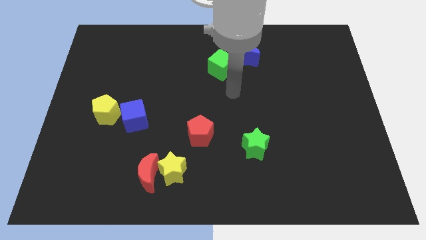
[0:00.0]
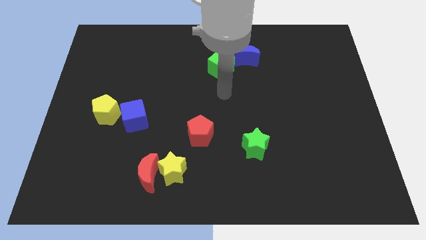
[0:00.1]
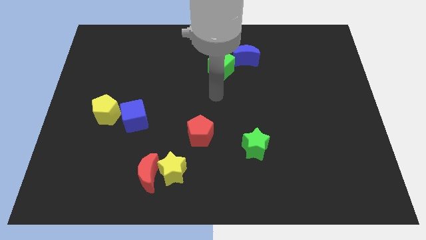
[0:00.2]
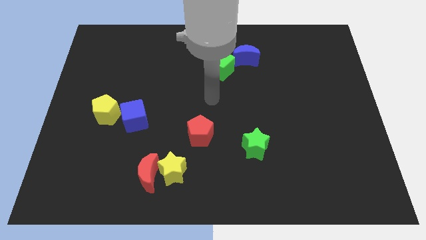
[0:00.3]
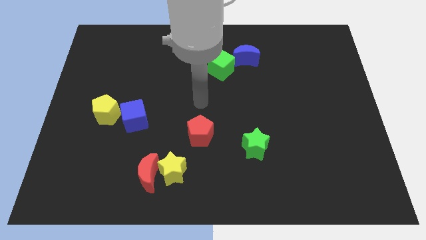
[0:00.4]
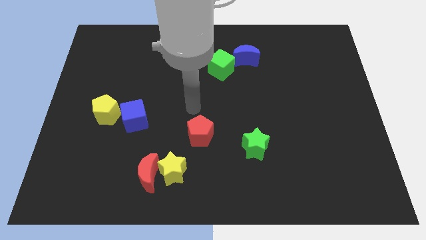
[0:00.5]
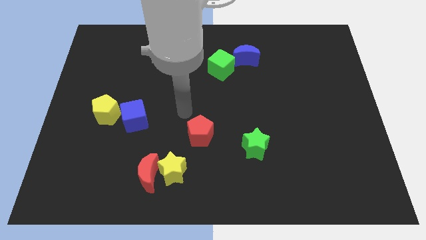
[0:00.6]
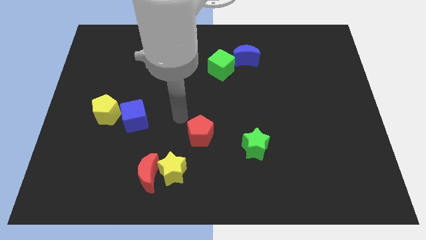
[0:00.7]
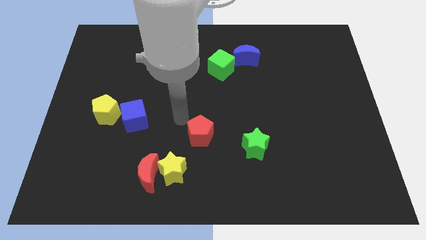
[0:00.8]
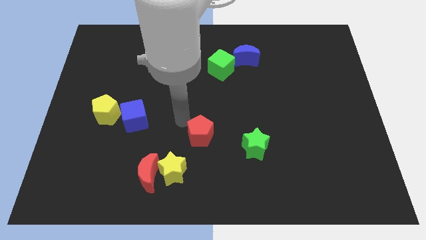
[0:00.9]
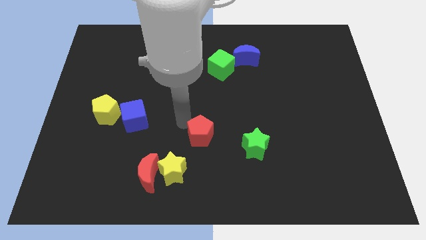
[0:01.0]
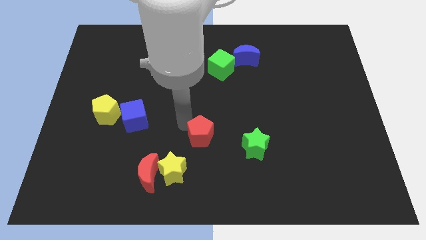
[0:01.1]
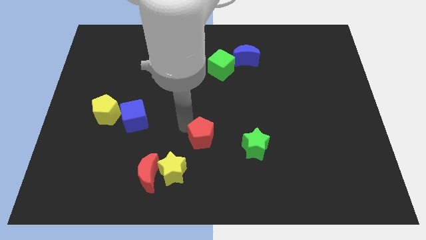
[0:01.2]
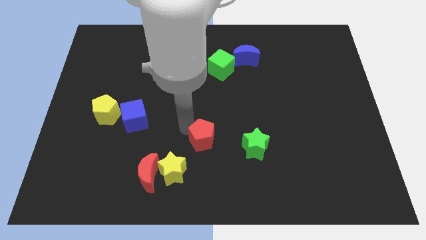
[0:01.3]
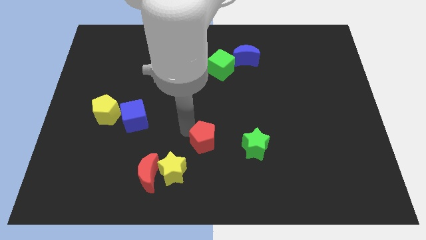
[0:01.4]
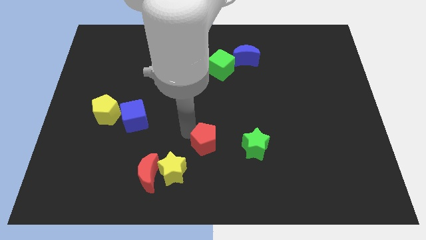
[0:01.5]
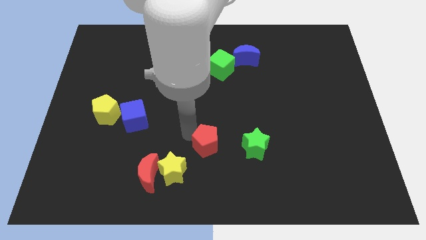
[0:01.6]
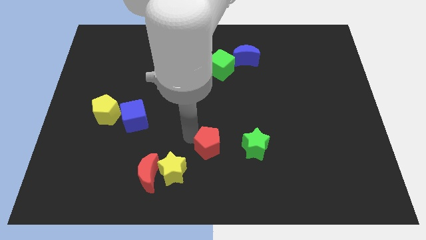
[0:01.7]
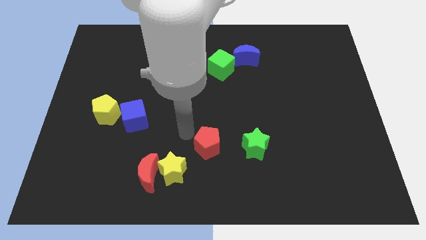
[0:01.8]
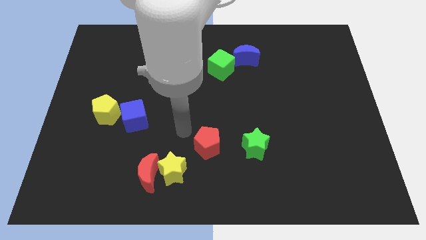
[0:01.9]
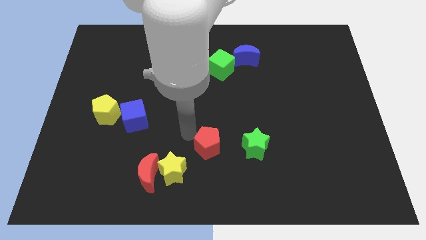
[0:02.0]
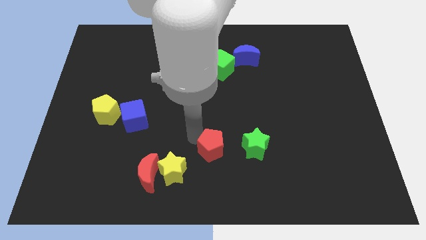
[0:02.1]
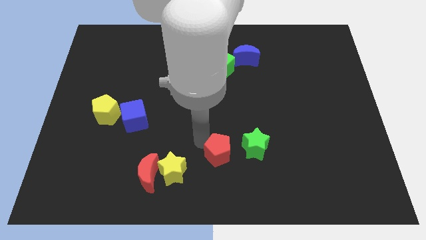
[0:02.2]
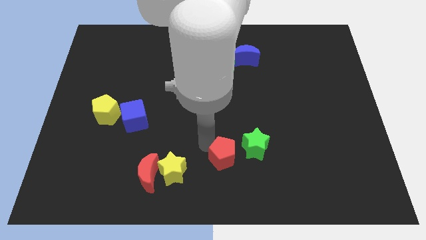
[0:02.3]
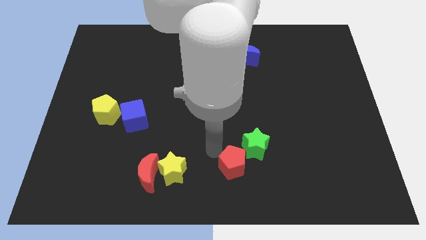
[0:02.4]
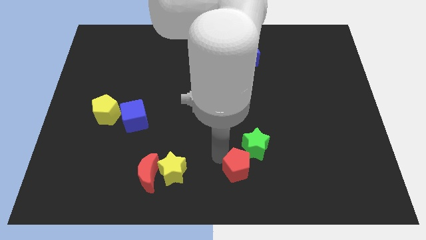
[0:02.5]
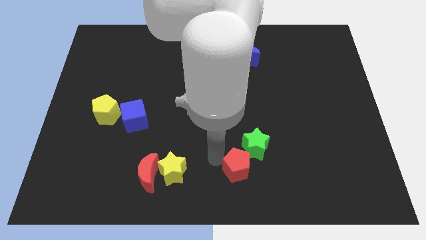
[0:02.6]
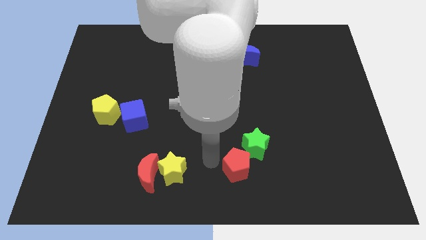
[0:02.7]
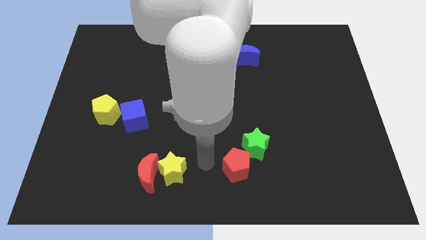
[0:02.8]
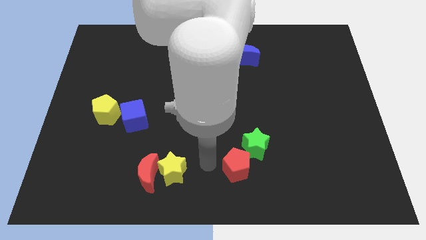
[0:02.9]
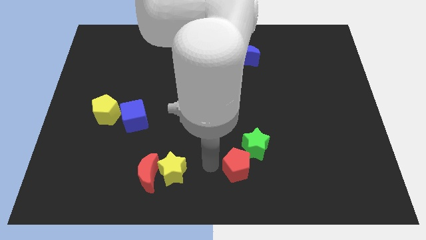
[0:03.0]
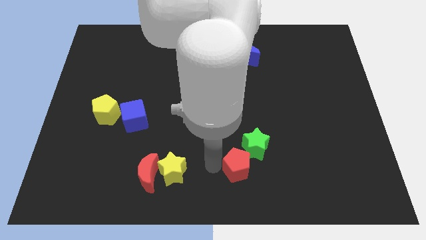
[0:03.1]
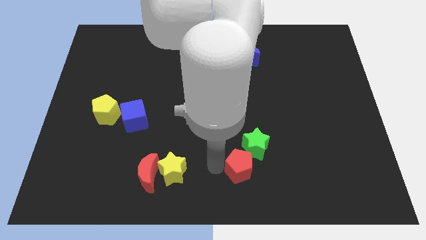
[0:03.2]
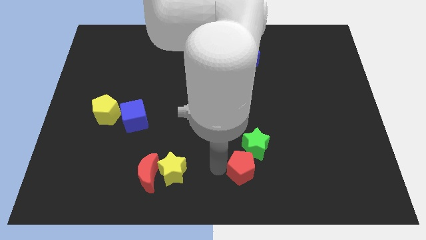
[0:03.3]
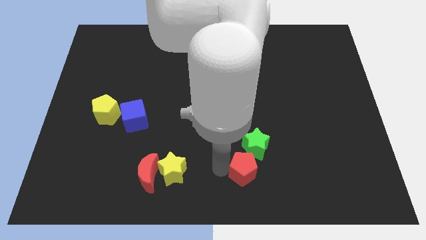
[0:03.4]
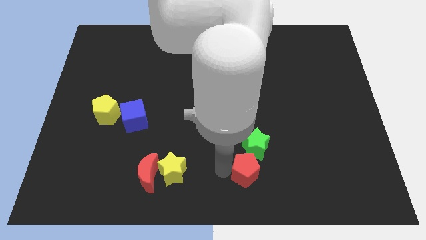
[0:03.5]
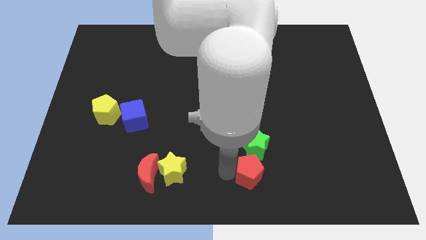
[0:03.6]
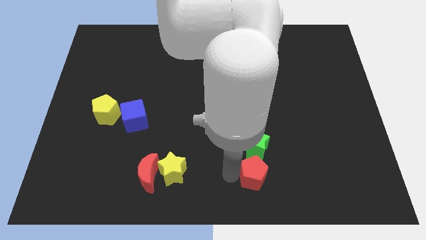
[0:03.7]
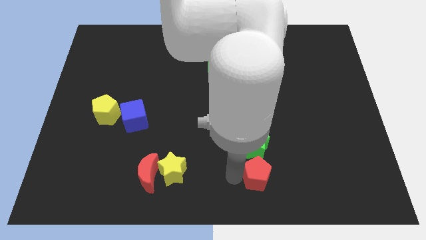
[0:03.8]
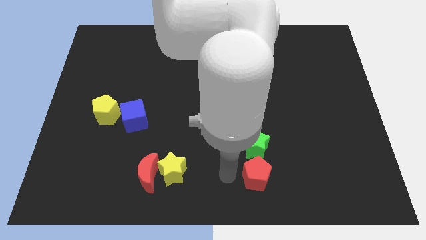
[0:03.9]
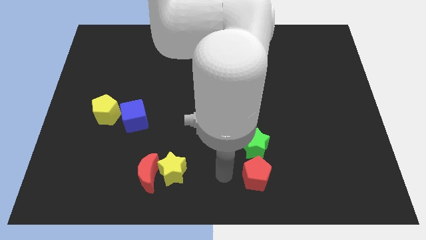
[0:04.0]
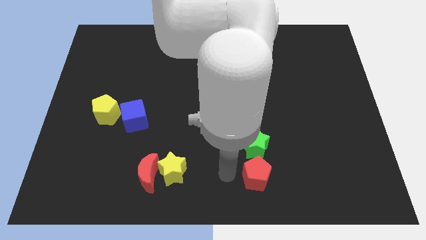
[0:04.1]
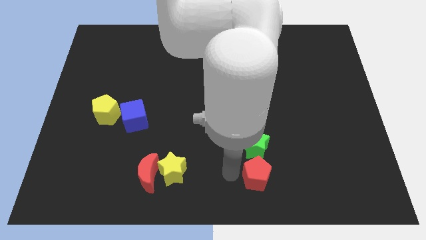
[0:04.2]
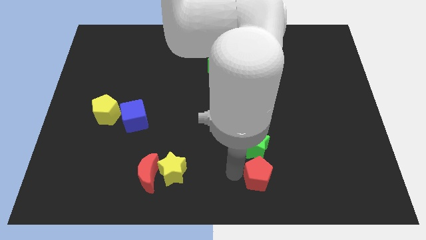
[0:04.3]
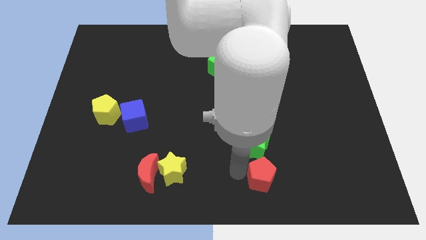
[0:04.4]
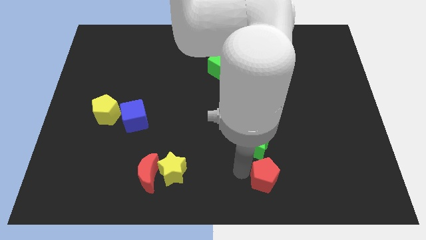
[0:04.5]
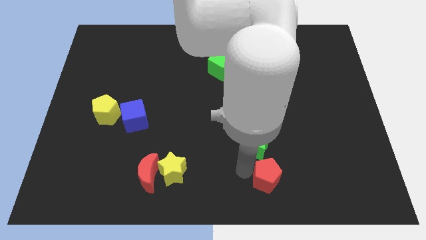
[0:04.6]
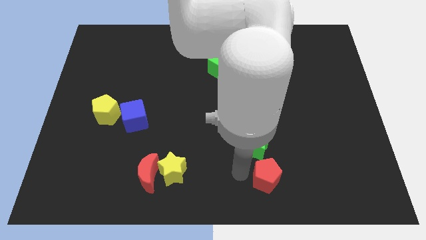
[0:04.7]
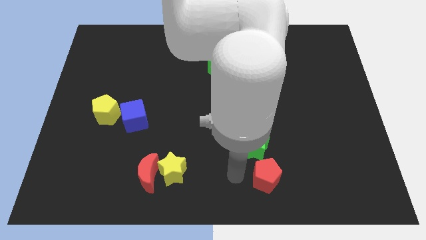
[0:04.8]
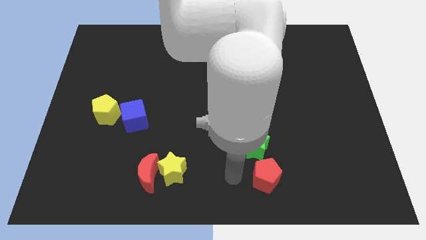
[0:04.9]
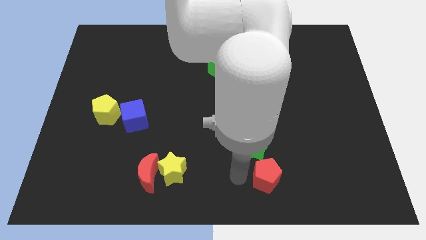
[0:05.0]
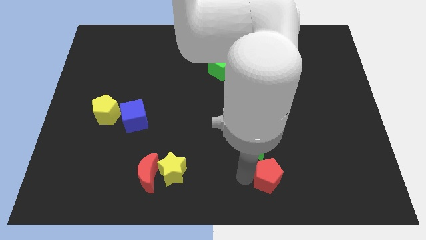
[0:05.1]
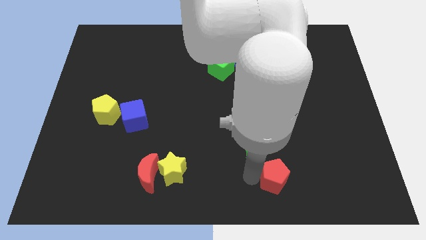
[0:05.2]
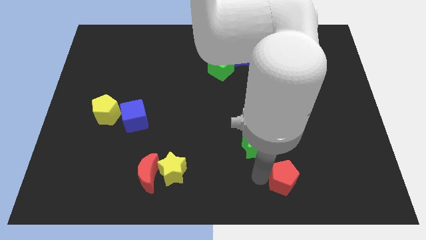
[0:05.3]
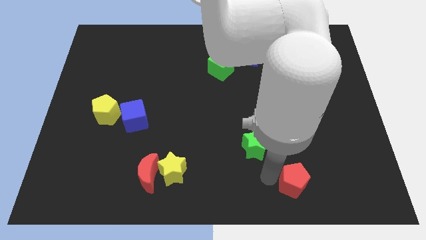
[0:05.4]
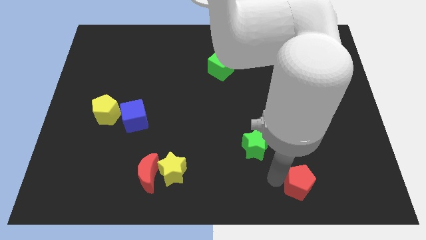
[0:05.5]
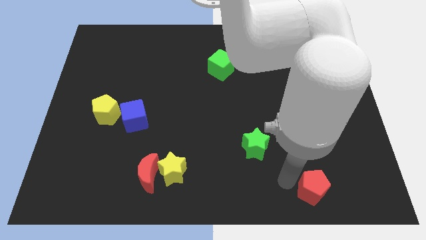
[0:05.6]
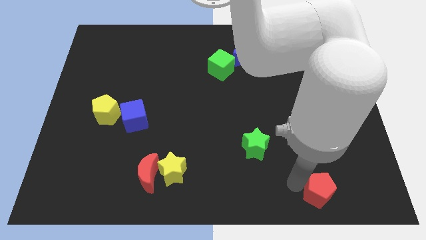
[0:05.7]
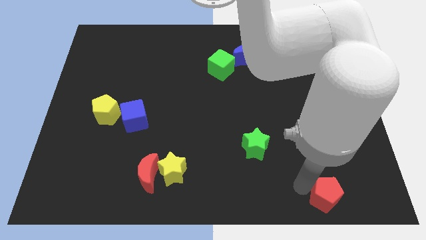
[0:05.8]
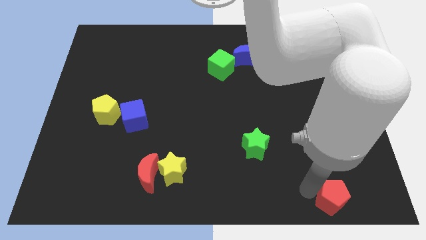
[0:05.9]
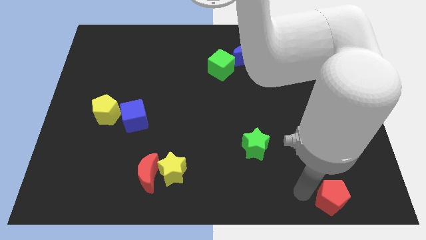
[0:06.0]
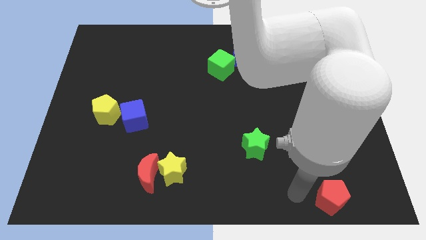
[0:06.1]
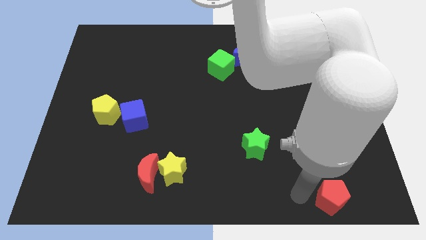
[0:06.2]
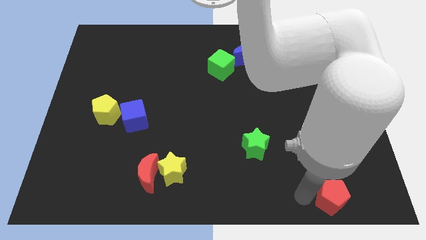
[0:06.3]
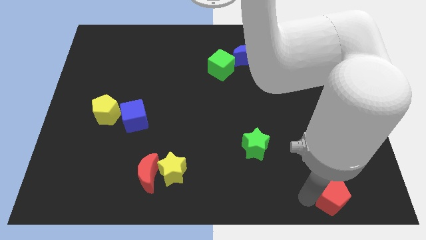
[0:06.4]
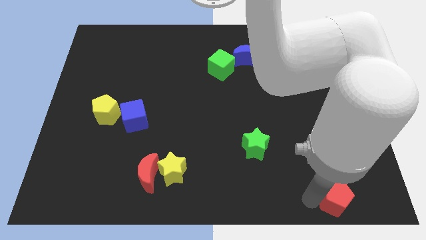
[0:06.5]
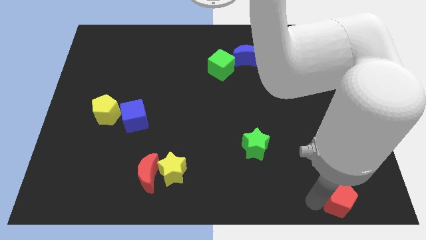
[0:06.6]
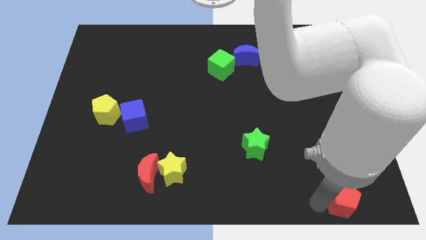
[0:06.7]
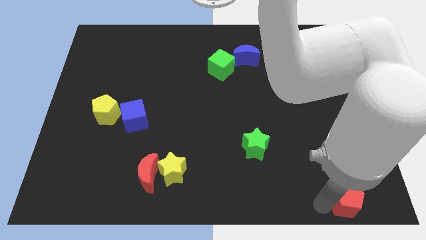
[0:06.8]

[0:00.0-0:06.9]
put the red pentagon to the bottom right corner
